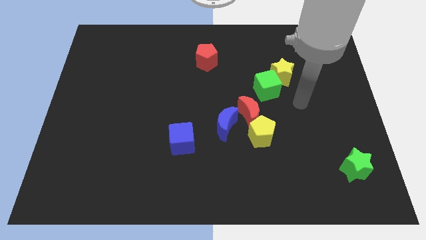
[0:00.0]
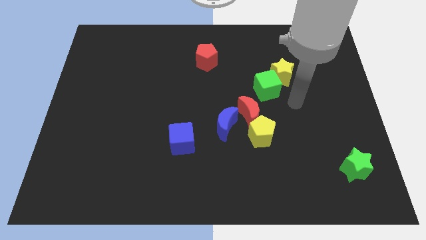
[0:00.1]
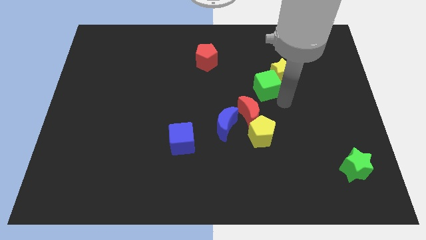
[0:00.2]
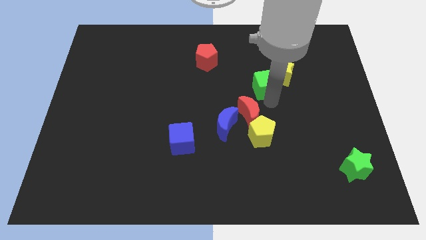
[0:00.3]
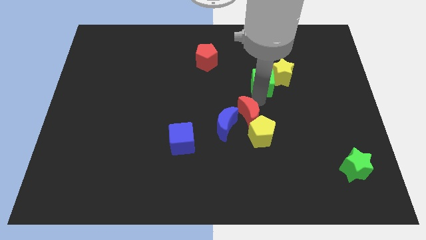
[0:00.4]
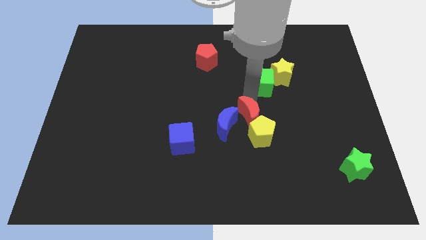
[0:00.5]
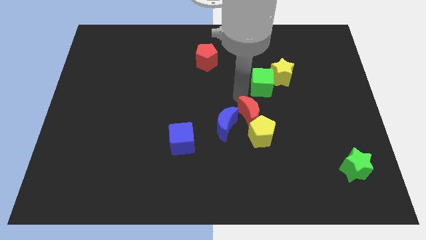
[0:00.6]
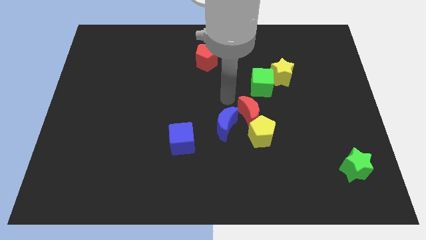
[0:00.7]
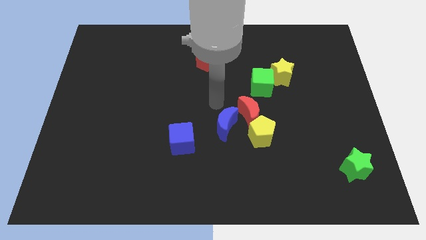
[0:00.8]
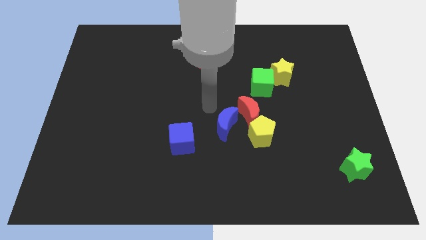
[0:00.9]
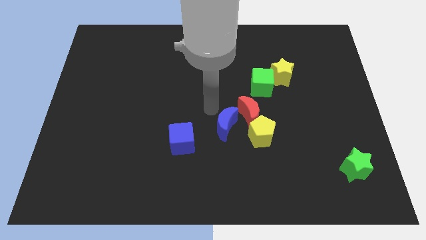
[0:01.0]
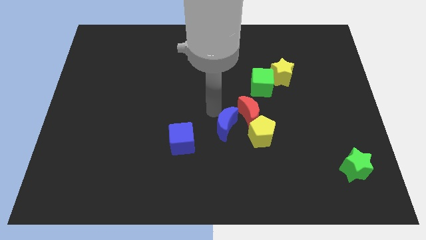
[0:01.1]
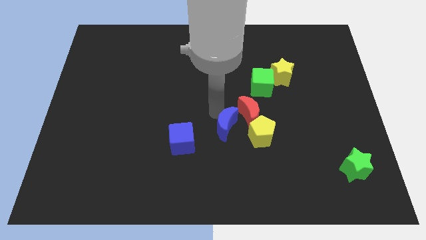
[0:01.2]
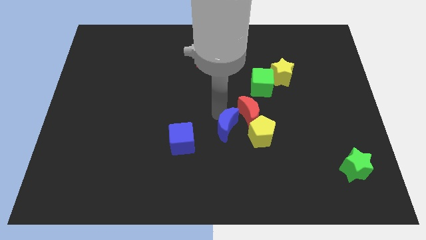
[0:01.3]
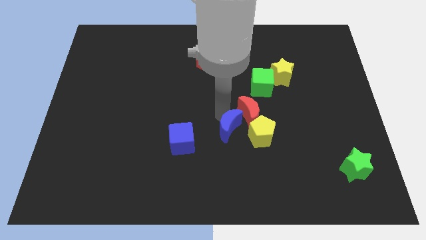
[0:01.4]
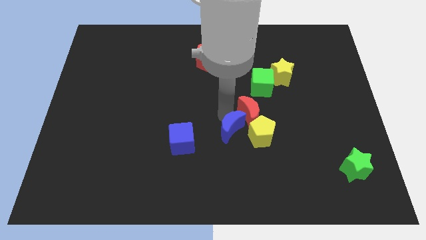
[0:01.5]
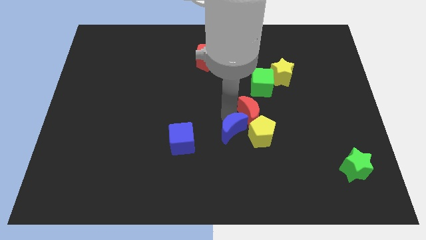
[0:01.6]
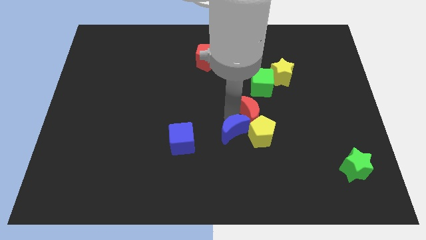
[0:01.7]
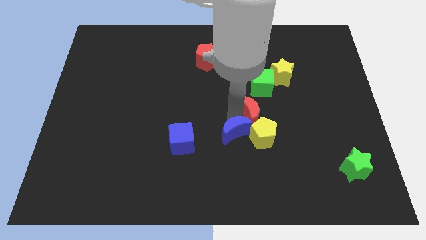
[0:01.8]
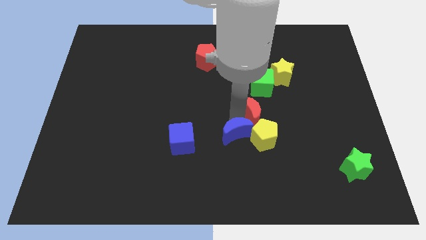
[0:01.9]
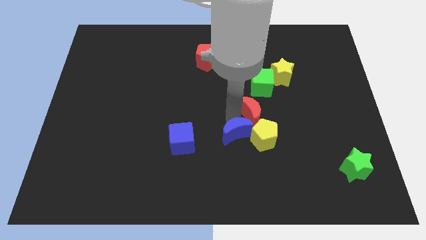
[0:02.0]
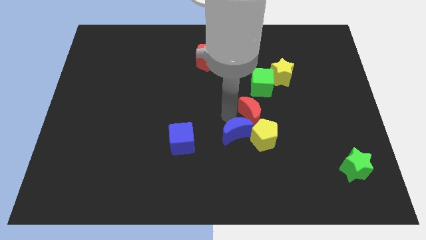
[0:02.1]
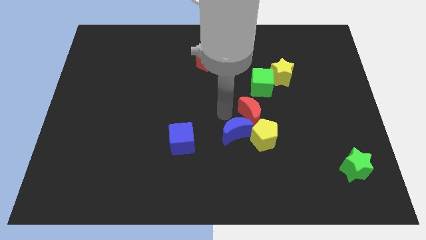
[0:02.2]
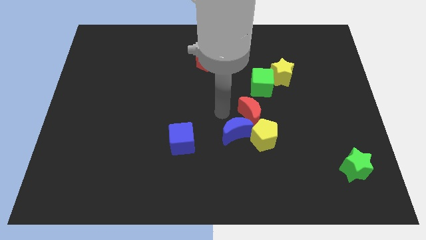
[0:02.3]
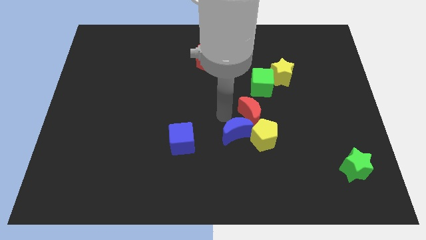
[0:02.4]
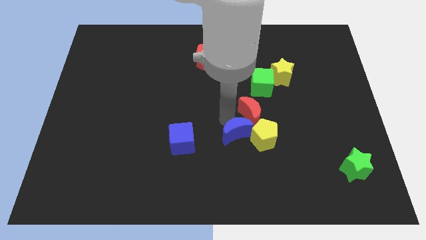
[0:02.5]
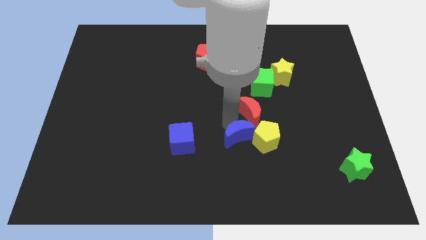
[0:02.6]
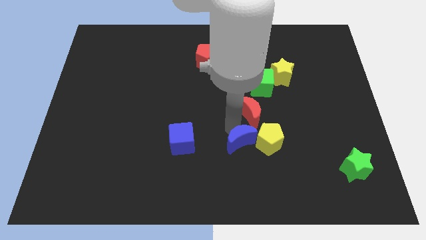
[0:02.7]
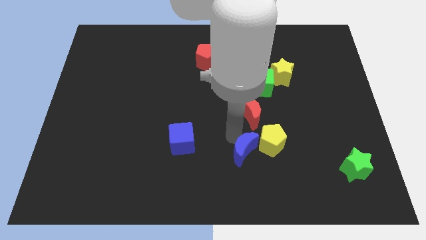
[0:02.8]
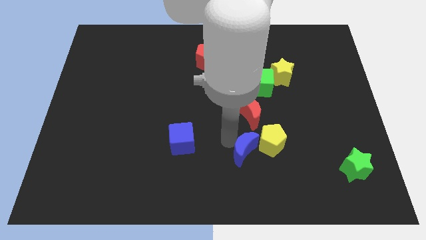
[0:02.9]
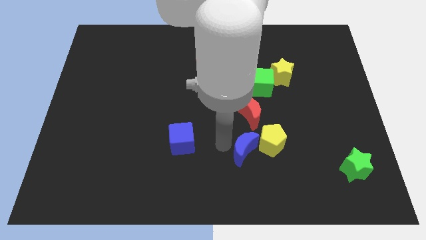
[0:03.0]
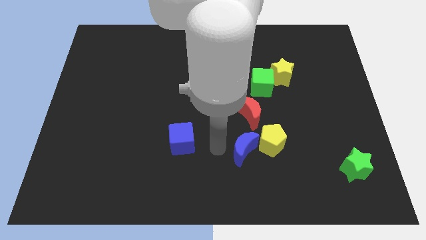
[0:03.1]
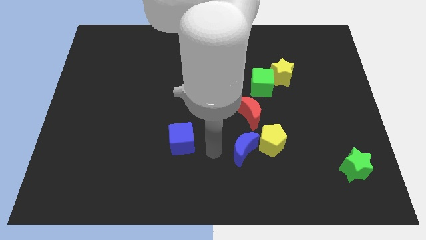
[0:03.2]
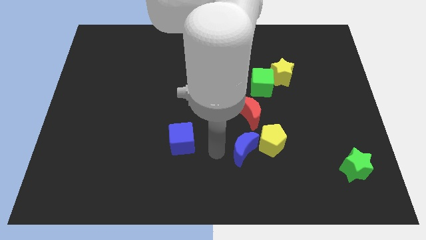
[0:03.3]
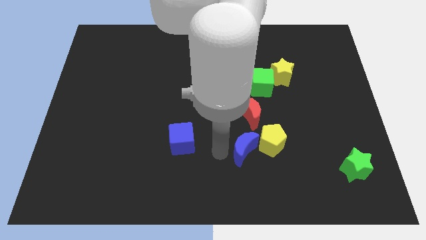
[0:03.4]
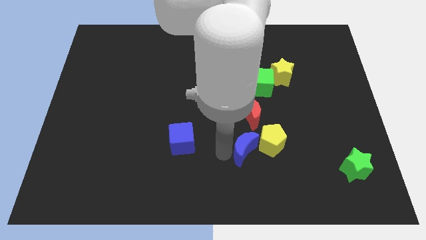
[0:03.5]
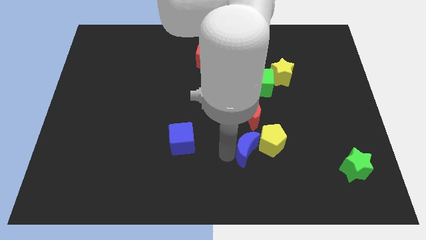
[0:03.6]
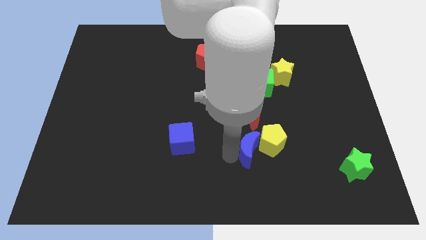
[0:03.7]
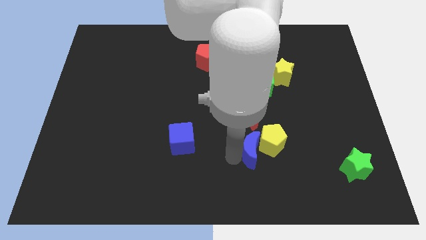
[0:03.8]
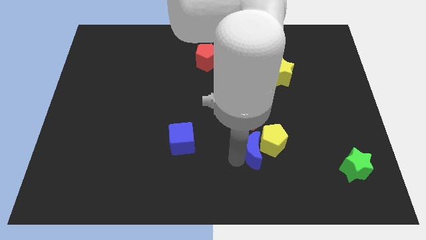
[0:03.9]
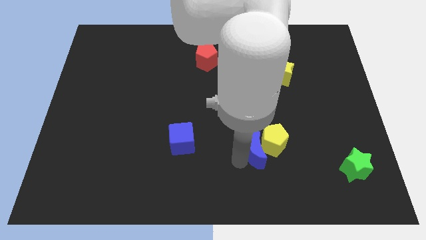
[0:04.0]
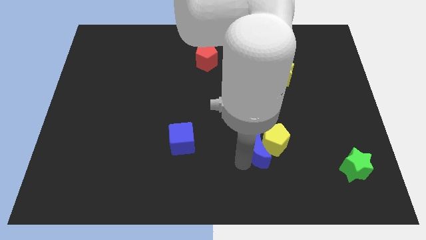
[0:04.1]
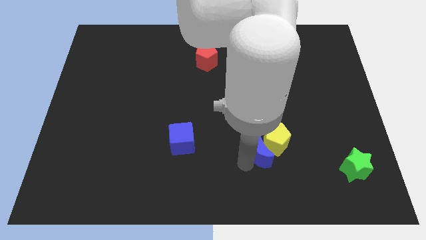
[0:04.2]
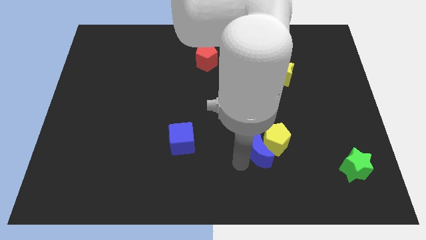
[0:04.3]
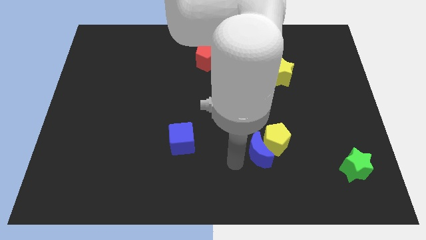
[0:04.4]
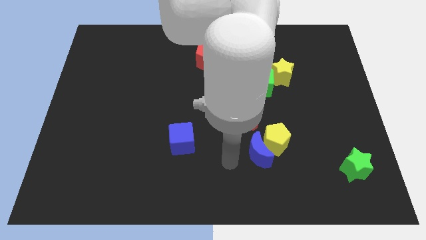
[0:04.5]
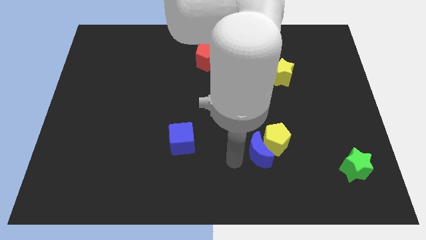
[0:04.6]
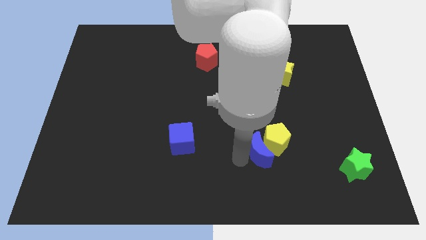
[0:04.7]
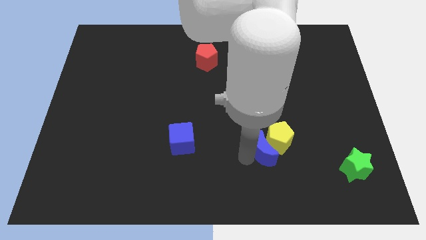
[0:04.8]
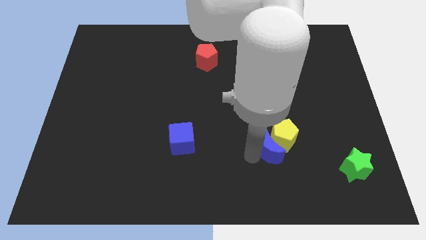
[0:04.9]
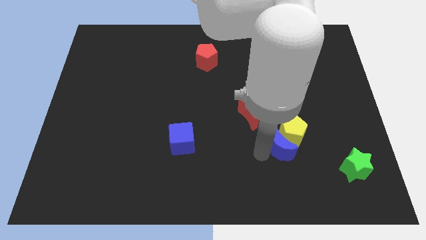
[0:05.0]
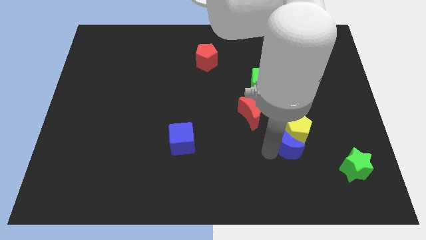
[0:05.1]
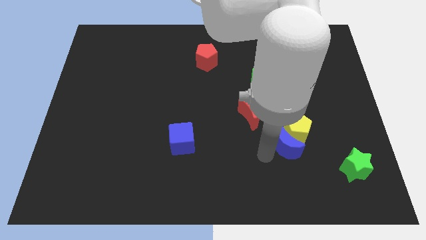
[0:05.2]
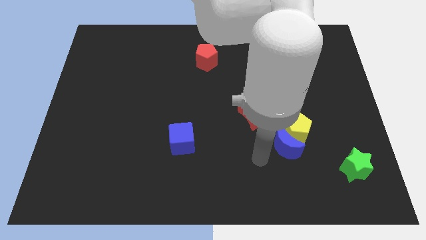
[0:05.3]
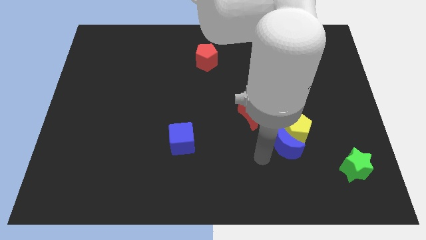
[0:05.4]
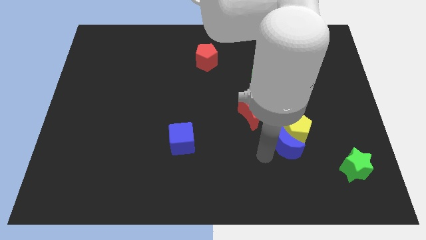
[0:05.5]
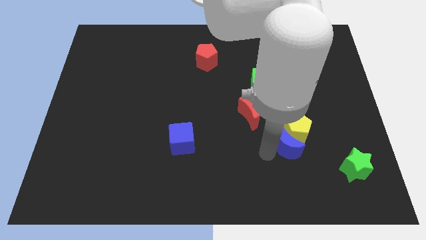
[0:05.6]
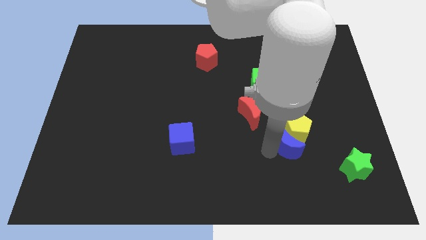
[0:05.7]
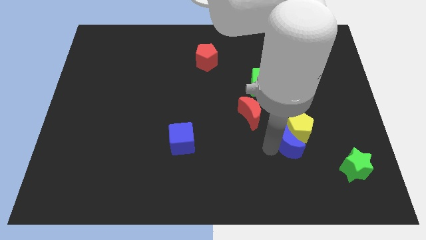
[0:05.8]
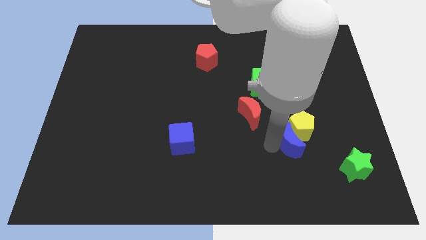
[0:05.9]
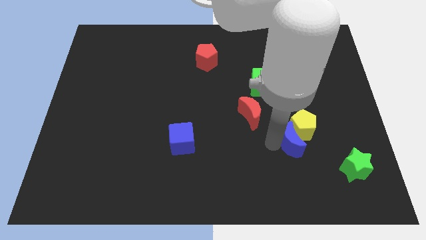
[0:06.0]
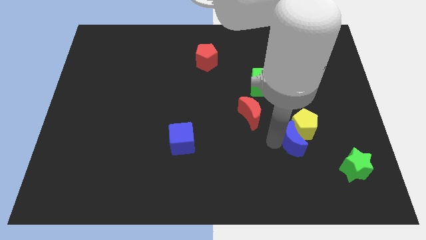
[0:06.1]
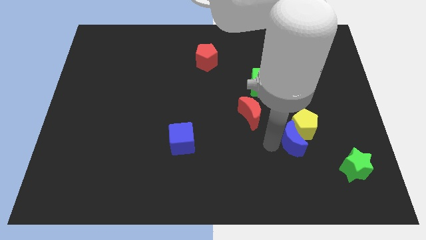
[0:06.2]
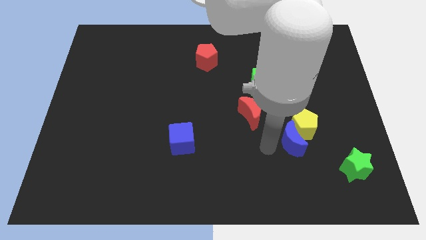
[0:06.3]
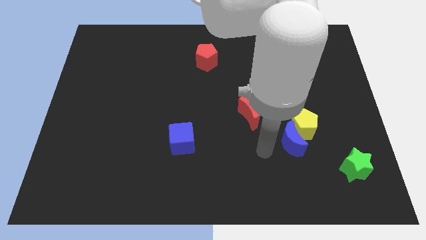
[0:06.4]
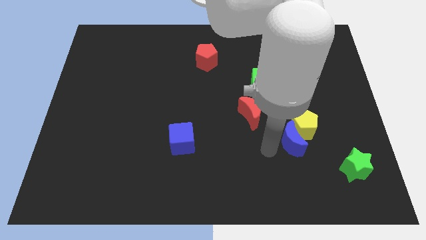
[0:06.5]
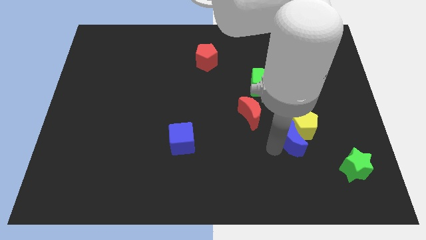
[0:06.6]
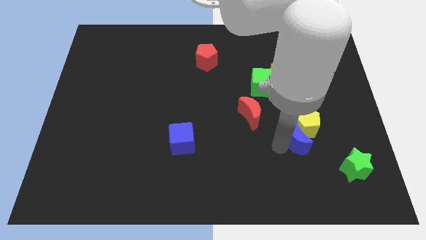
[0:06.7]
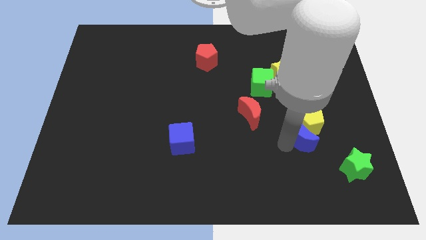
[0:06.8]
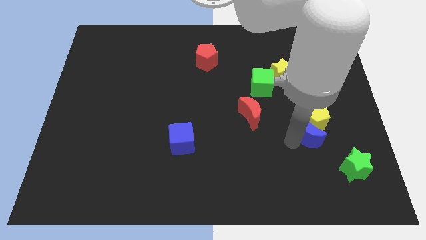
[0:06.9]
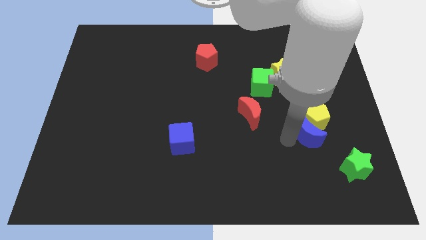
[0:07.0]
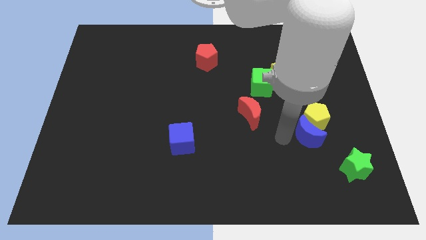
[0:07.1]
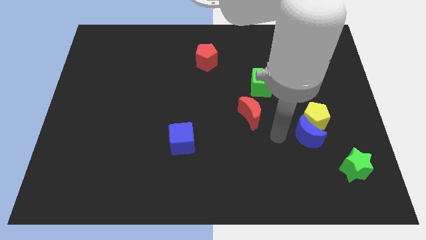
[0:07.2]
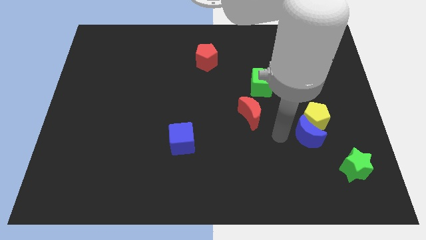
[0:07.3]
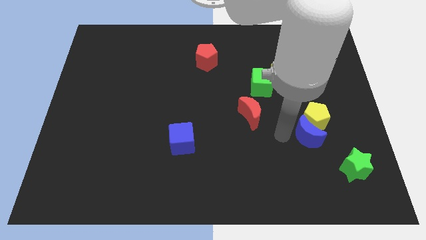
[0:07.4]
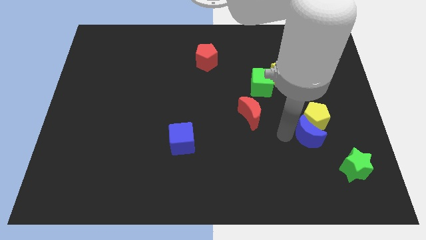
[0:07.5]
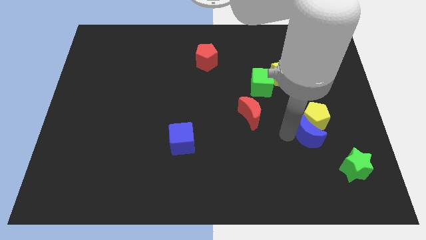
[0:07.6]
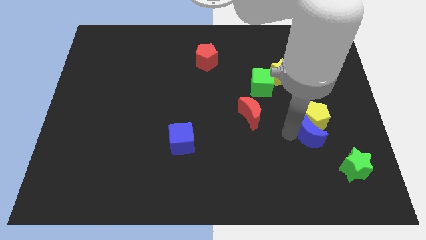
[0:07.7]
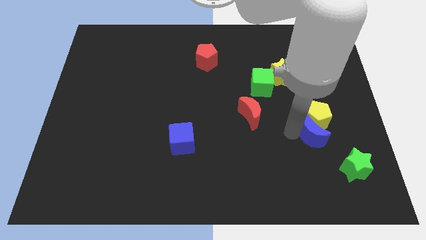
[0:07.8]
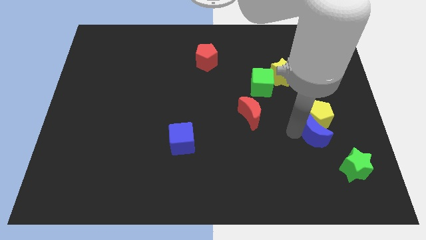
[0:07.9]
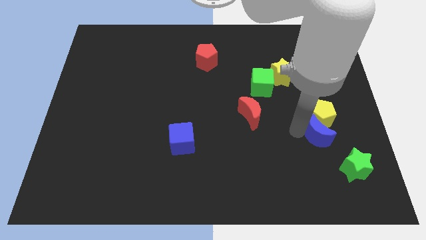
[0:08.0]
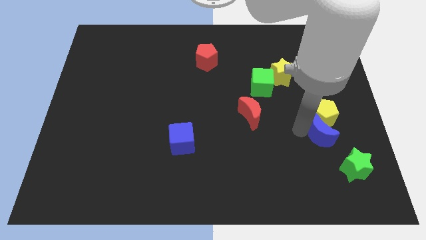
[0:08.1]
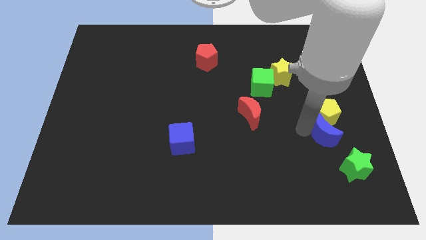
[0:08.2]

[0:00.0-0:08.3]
move the blue moon above the green star
